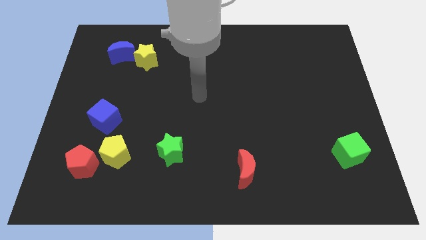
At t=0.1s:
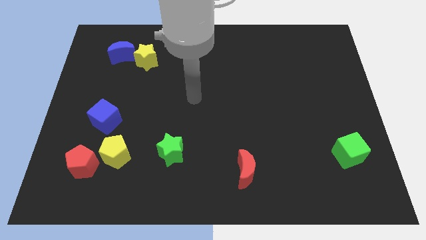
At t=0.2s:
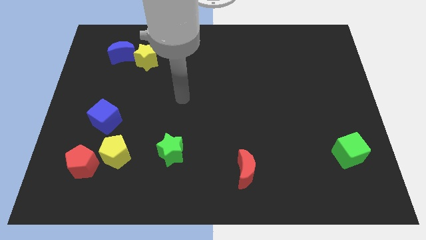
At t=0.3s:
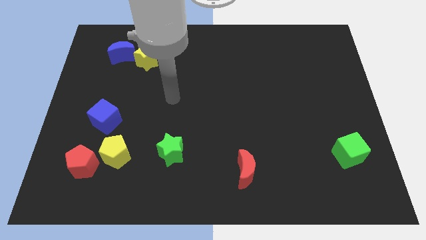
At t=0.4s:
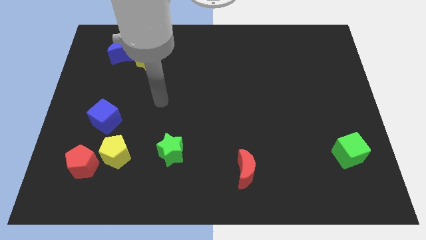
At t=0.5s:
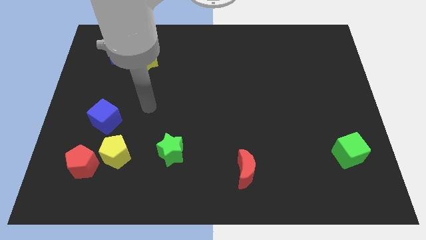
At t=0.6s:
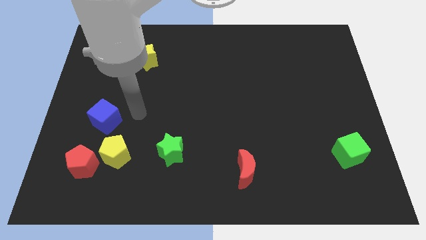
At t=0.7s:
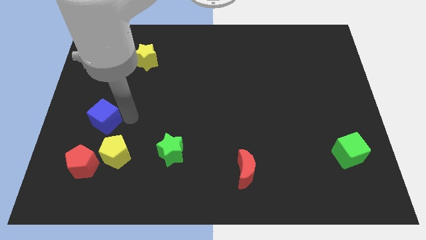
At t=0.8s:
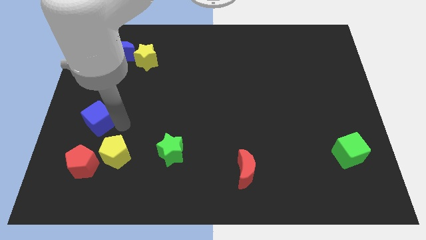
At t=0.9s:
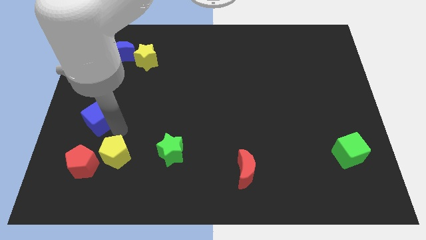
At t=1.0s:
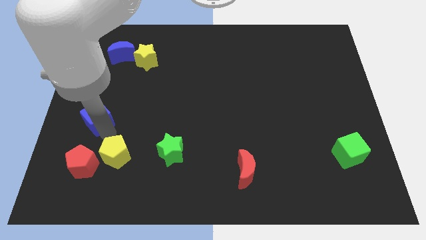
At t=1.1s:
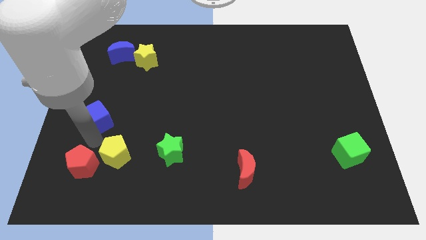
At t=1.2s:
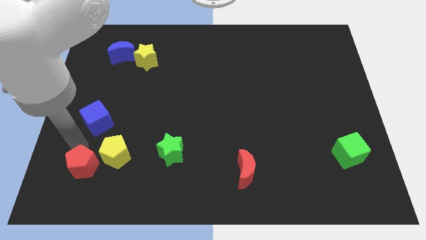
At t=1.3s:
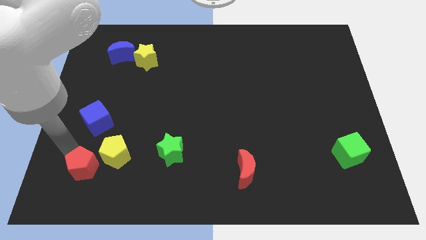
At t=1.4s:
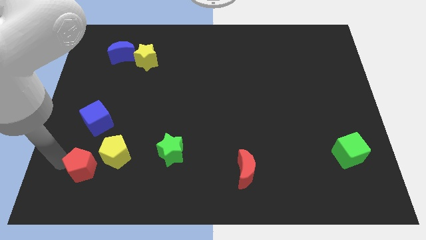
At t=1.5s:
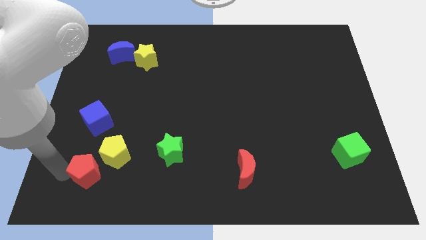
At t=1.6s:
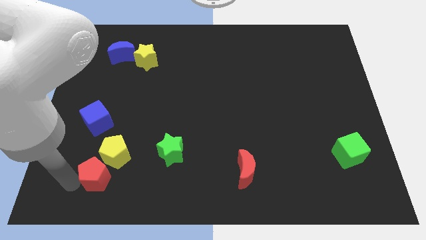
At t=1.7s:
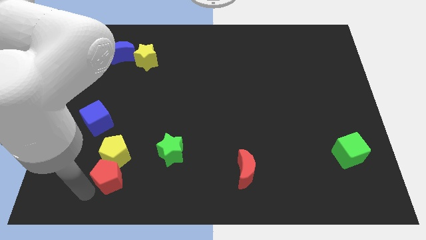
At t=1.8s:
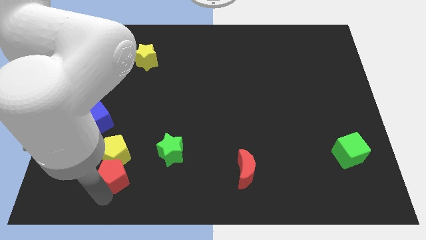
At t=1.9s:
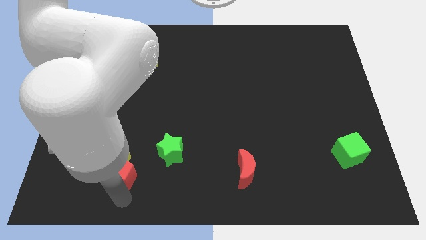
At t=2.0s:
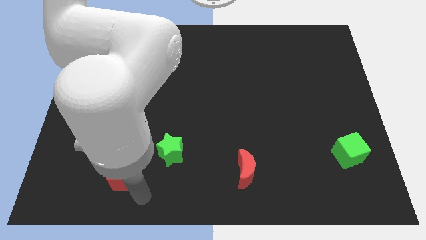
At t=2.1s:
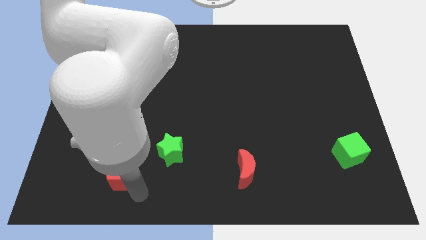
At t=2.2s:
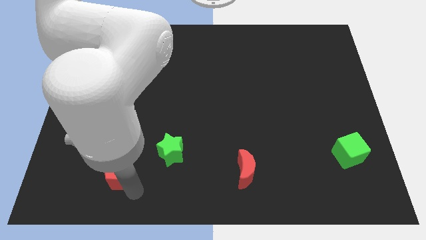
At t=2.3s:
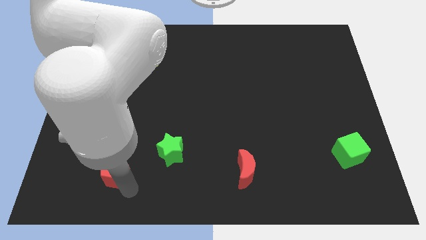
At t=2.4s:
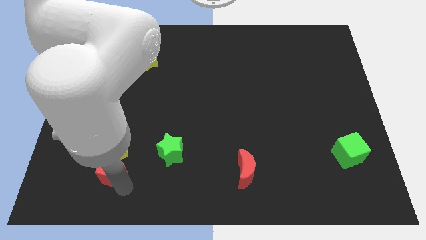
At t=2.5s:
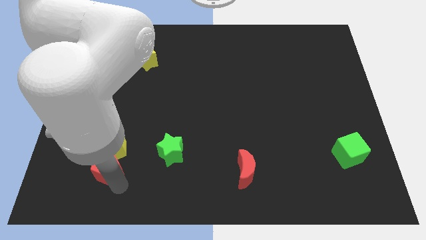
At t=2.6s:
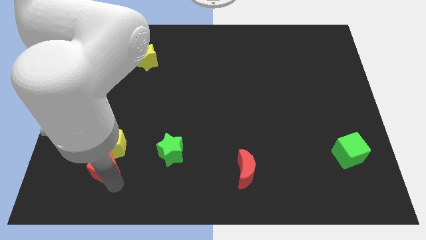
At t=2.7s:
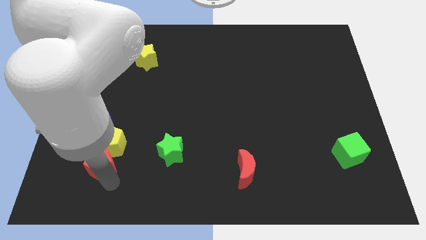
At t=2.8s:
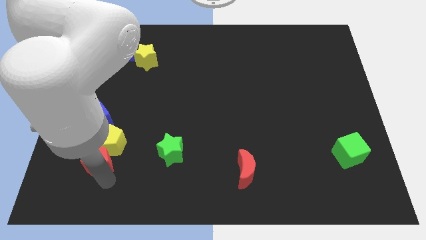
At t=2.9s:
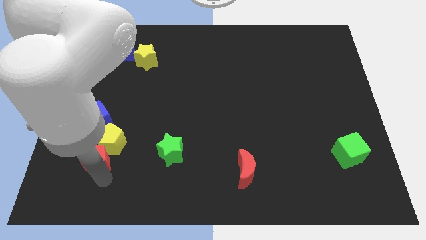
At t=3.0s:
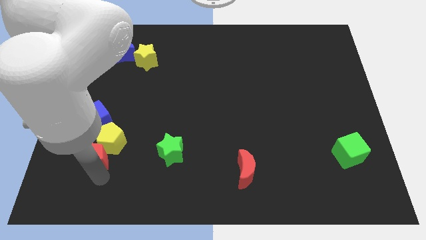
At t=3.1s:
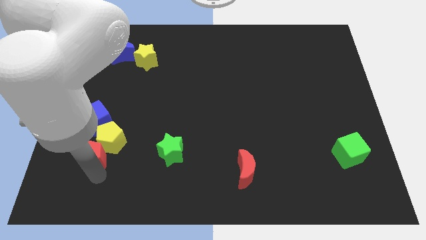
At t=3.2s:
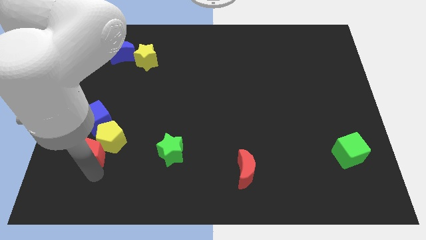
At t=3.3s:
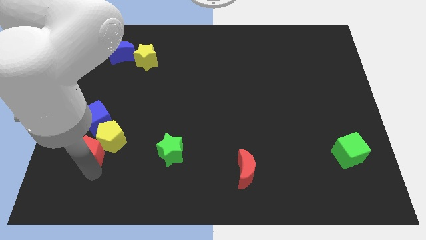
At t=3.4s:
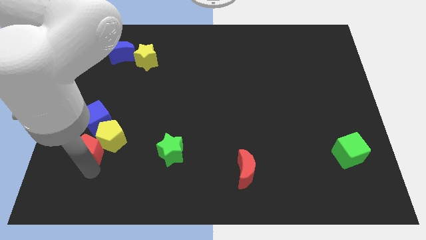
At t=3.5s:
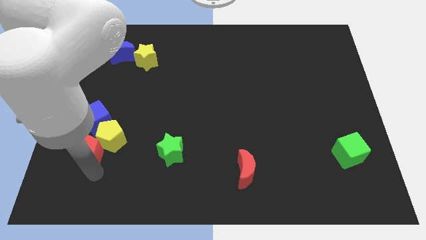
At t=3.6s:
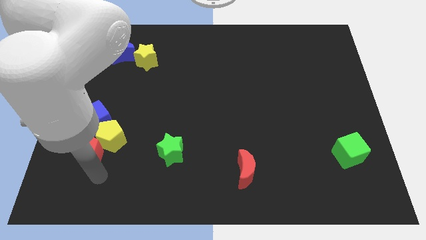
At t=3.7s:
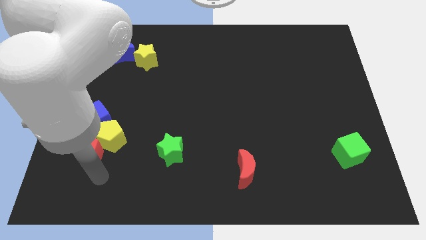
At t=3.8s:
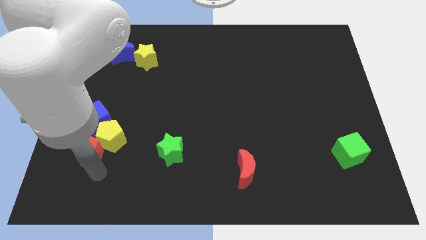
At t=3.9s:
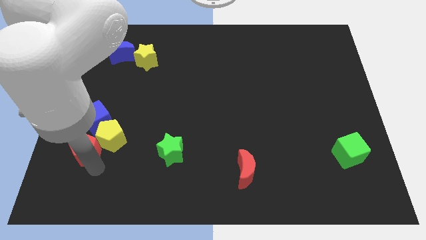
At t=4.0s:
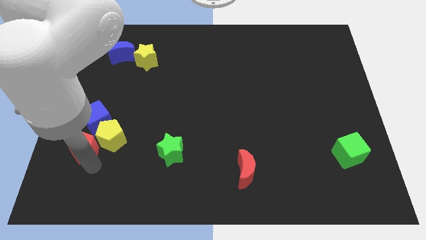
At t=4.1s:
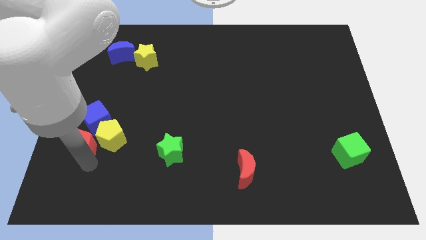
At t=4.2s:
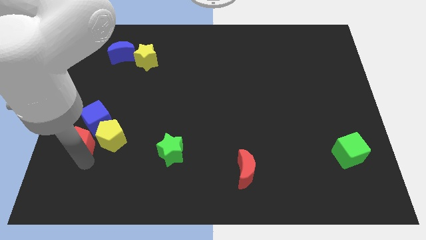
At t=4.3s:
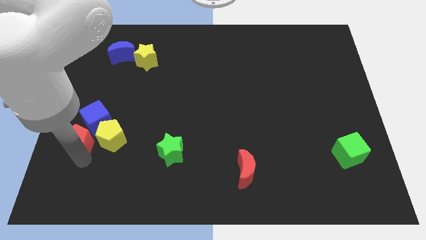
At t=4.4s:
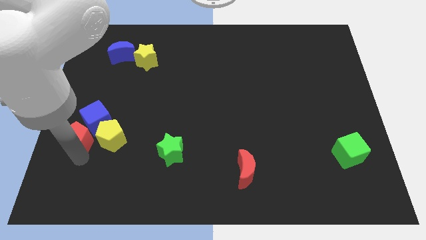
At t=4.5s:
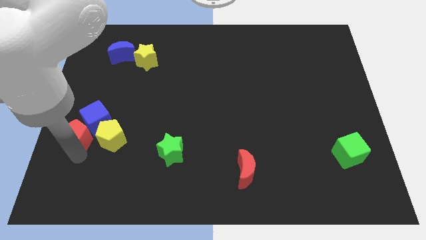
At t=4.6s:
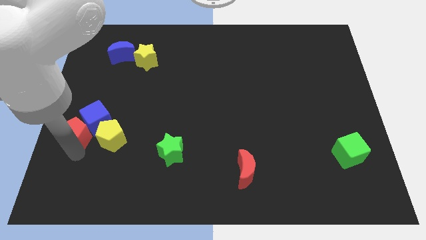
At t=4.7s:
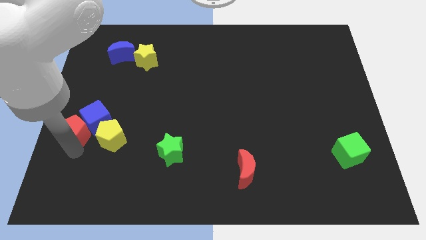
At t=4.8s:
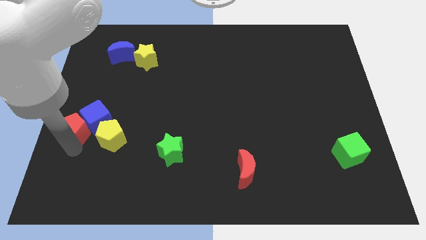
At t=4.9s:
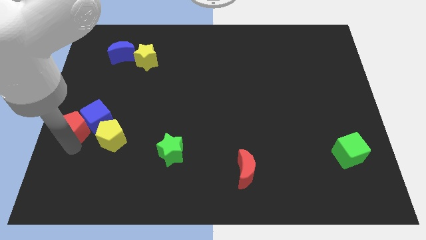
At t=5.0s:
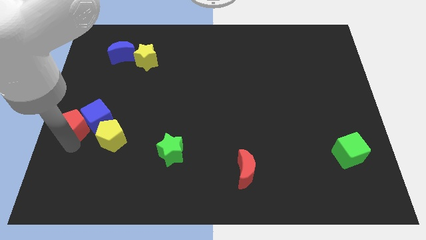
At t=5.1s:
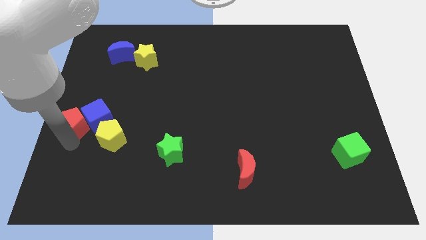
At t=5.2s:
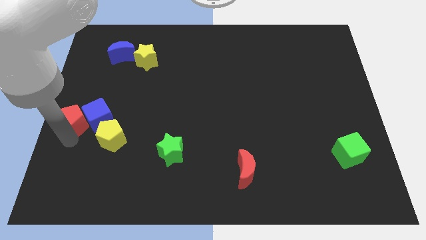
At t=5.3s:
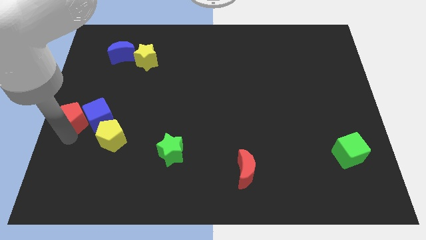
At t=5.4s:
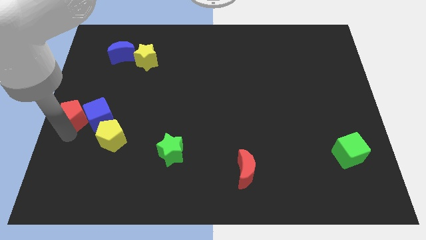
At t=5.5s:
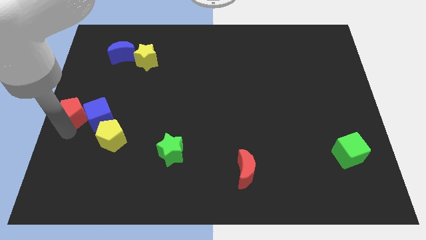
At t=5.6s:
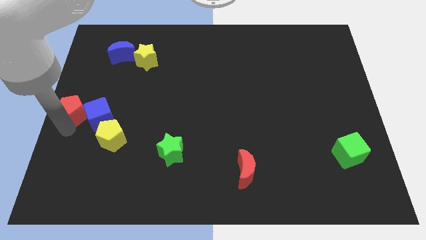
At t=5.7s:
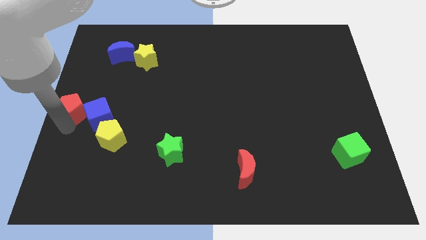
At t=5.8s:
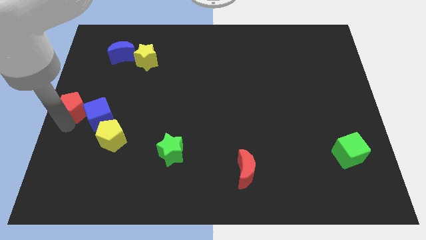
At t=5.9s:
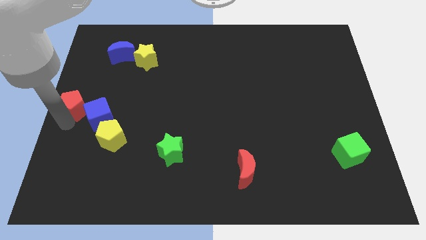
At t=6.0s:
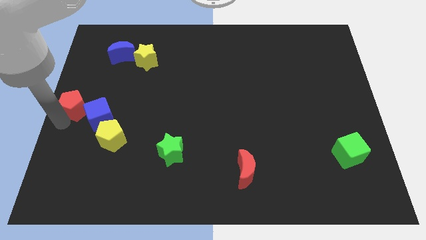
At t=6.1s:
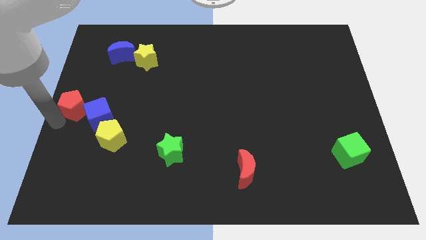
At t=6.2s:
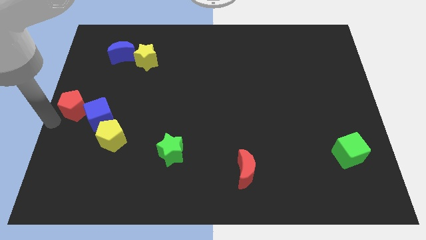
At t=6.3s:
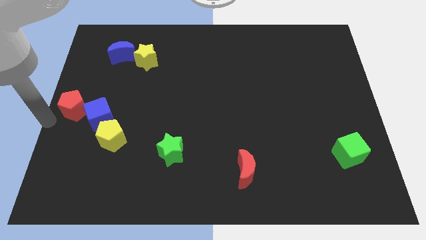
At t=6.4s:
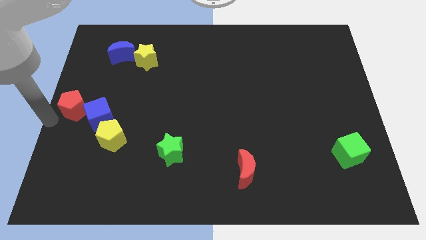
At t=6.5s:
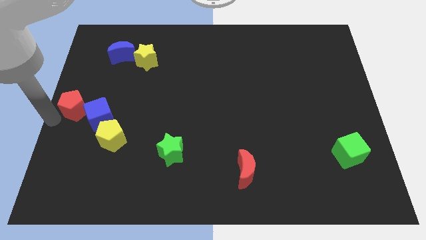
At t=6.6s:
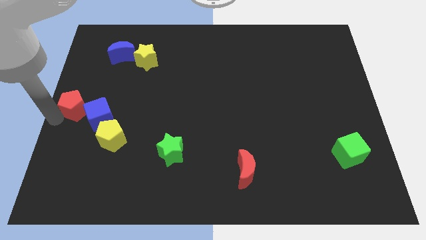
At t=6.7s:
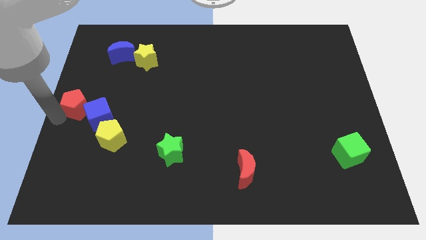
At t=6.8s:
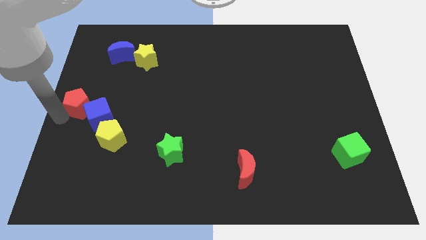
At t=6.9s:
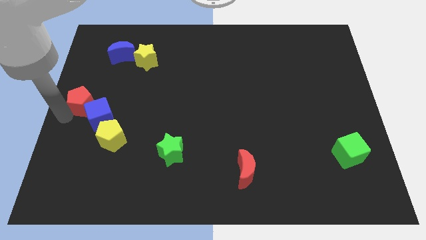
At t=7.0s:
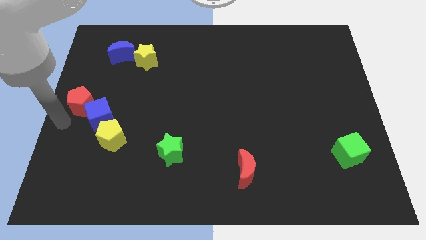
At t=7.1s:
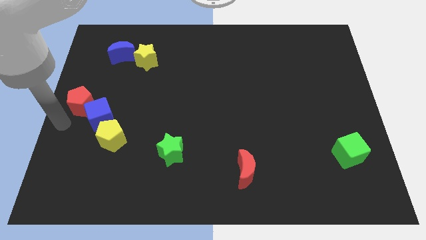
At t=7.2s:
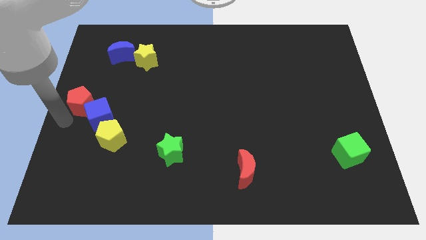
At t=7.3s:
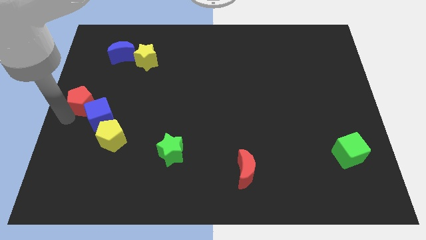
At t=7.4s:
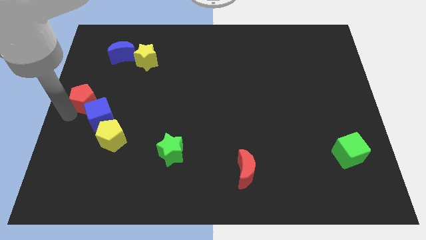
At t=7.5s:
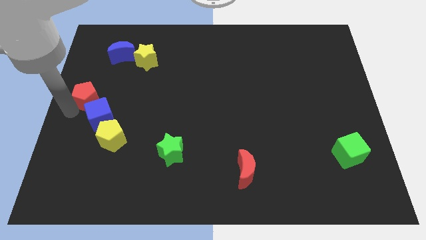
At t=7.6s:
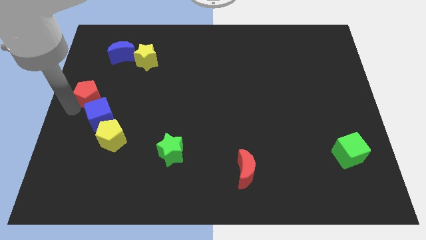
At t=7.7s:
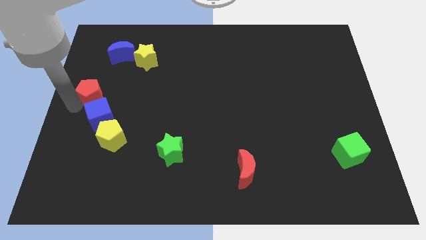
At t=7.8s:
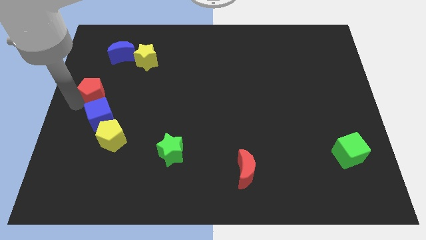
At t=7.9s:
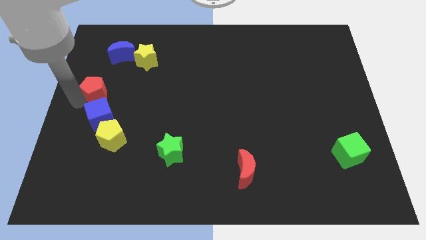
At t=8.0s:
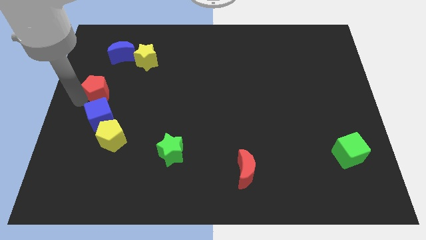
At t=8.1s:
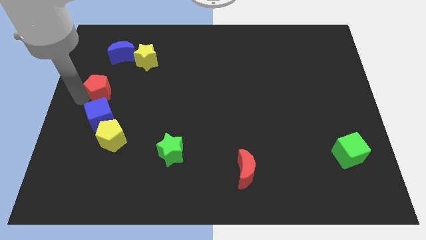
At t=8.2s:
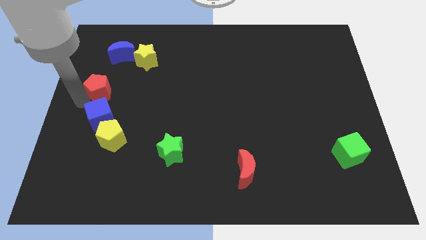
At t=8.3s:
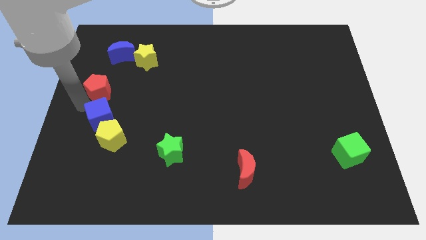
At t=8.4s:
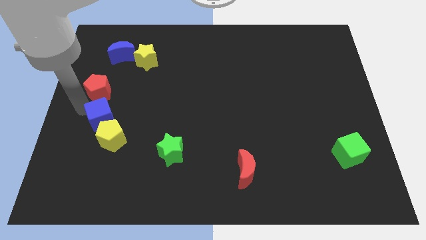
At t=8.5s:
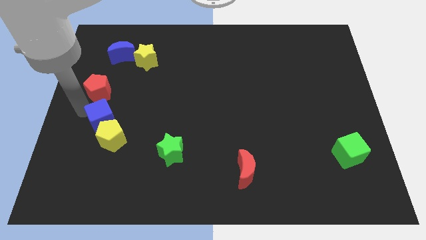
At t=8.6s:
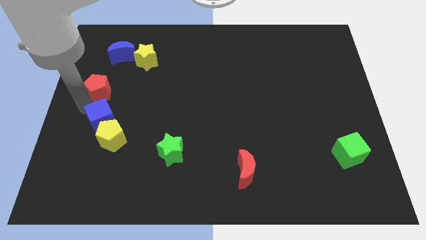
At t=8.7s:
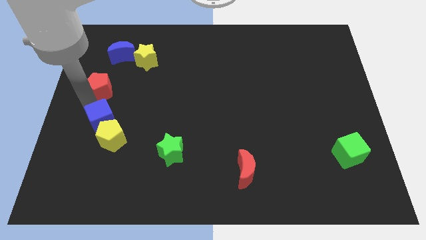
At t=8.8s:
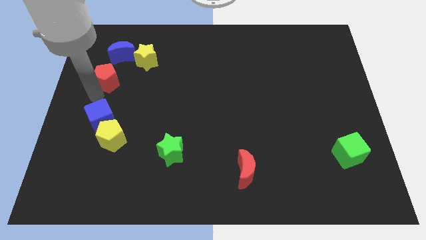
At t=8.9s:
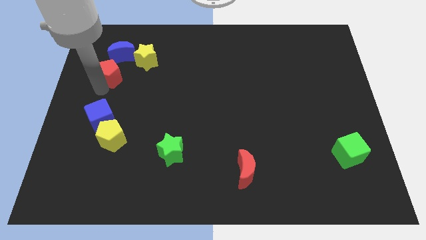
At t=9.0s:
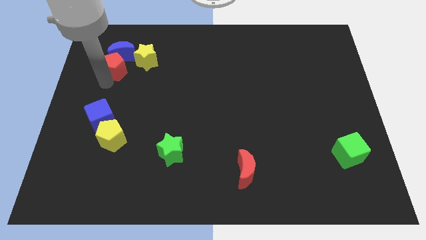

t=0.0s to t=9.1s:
put the red pentagon next to the blue moon
